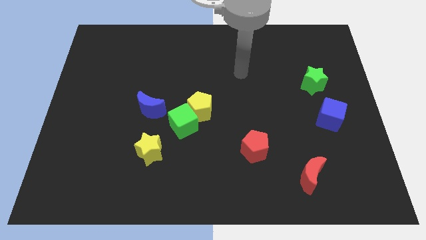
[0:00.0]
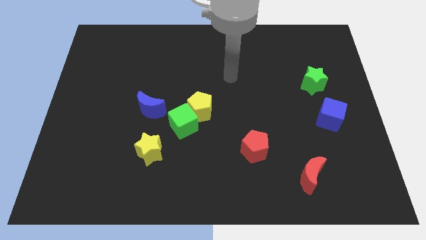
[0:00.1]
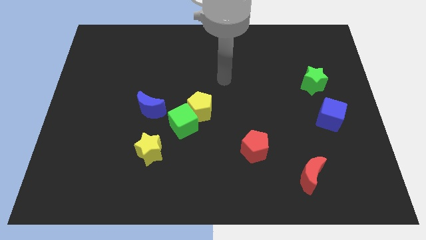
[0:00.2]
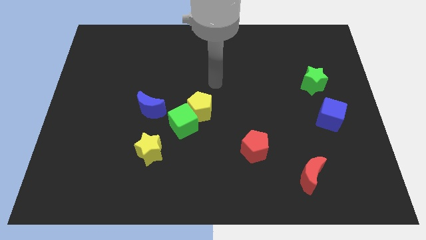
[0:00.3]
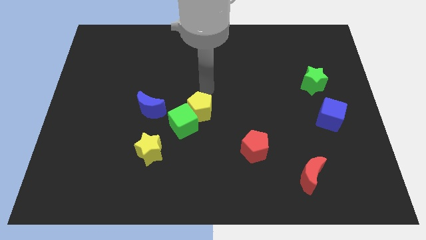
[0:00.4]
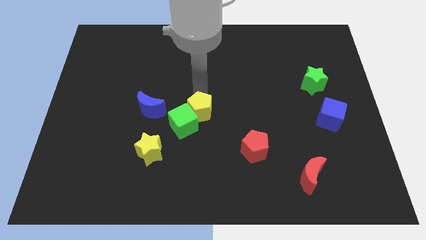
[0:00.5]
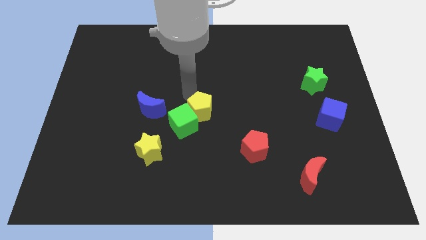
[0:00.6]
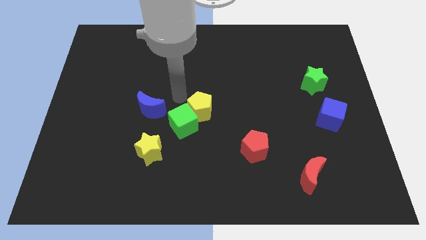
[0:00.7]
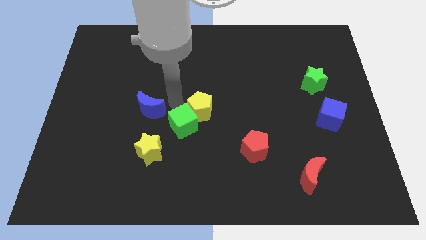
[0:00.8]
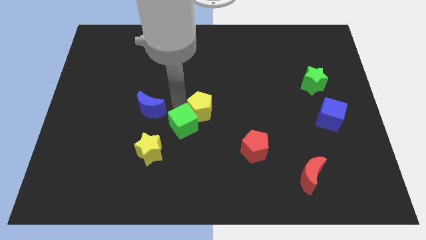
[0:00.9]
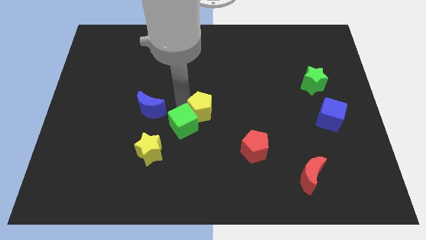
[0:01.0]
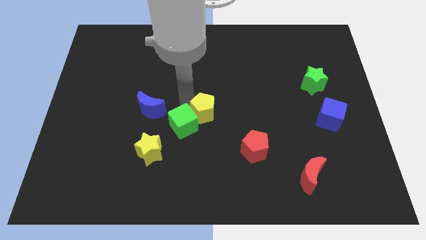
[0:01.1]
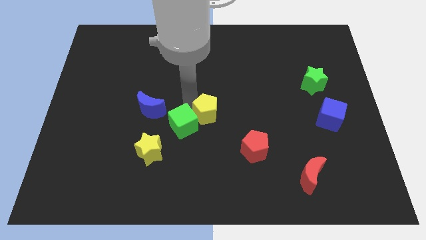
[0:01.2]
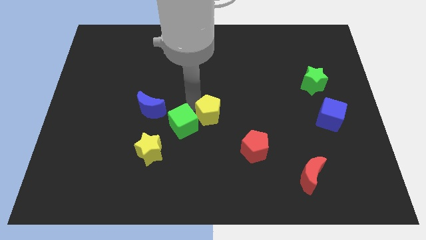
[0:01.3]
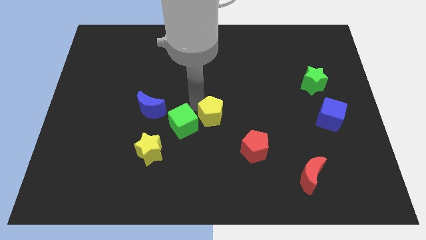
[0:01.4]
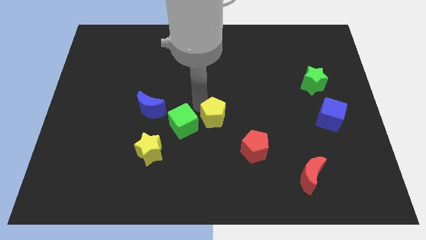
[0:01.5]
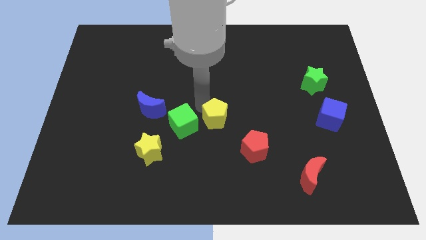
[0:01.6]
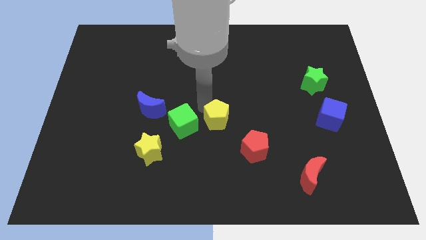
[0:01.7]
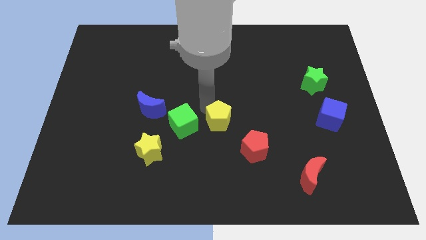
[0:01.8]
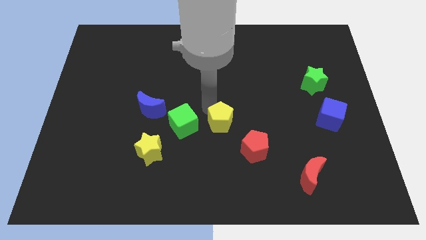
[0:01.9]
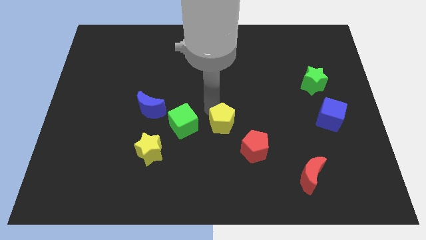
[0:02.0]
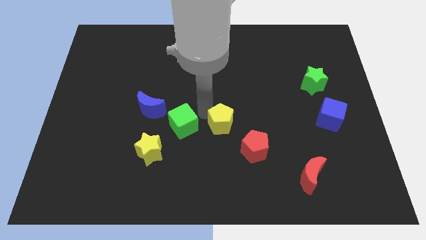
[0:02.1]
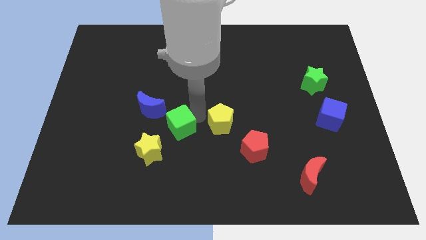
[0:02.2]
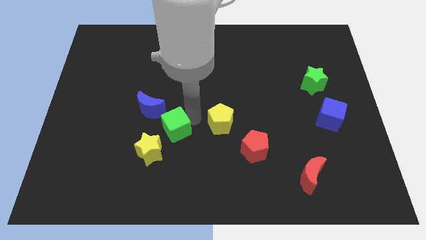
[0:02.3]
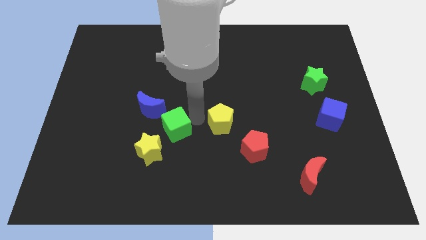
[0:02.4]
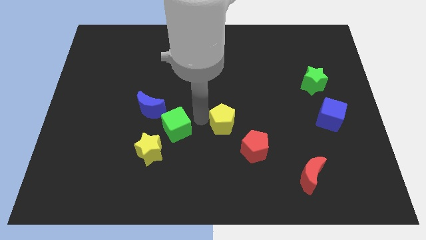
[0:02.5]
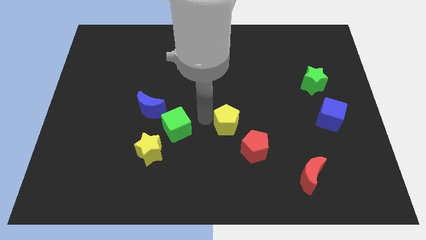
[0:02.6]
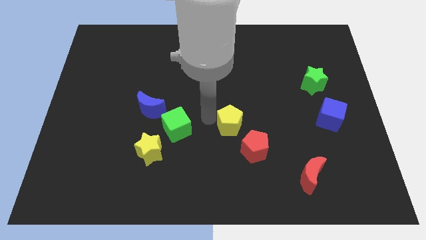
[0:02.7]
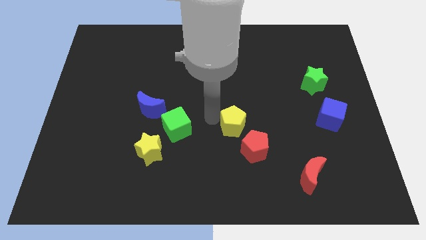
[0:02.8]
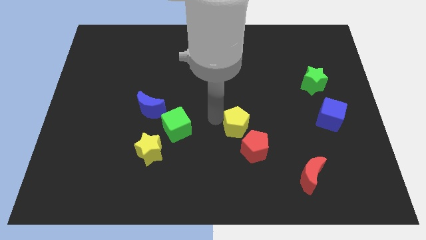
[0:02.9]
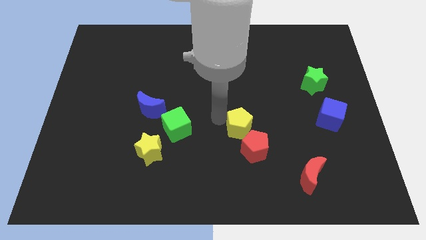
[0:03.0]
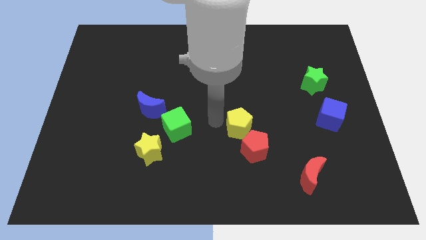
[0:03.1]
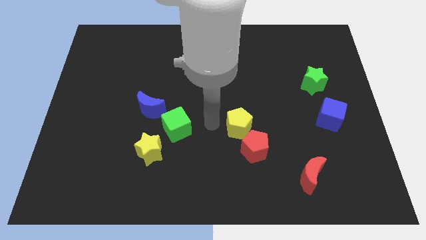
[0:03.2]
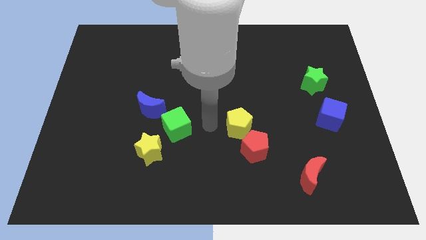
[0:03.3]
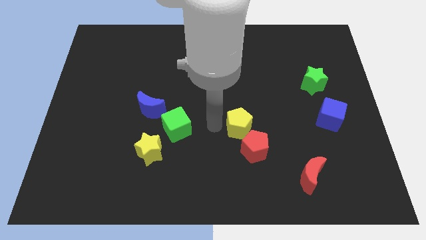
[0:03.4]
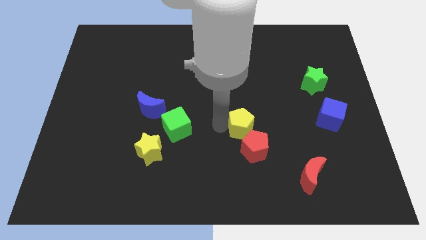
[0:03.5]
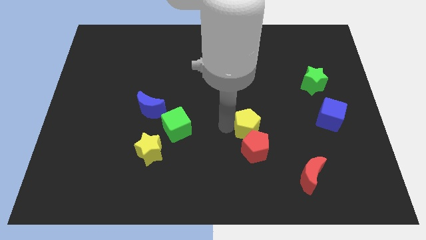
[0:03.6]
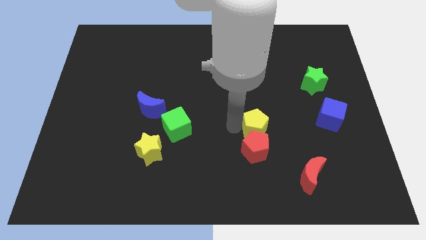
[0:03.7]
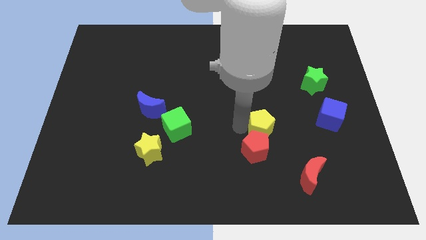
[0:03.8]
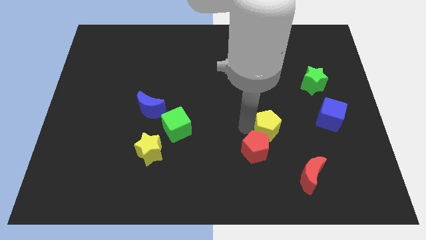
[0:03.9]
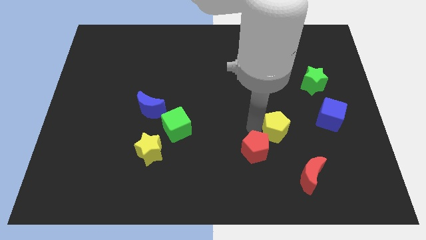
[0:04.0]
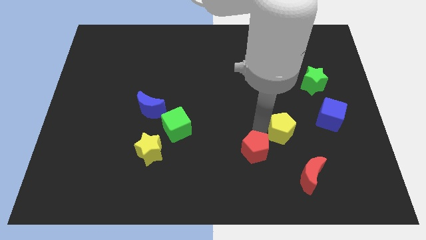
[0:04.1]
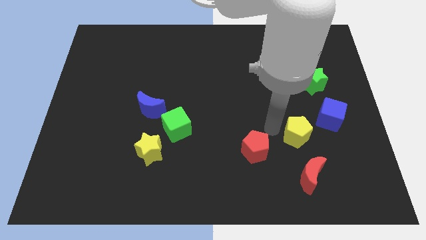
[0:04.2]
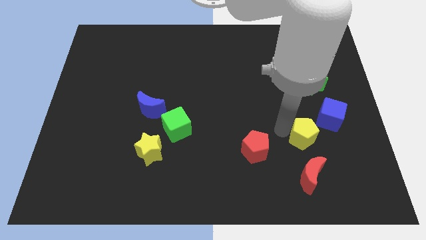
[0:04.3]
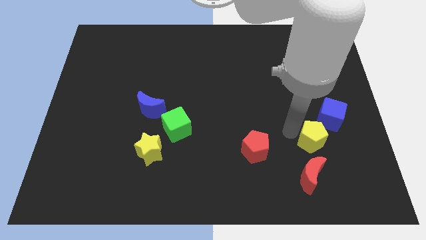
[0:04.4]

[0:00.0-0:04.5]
slide the yellow pentagon diagonally up and to the right of the red moon

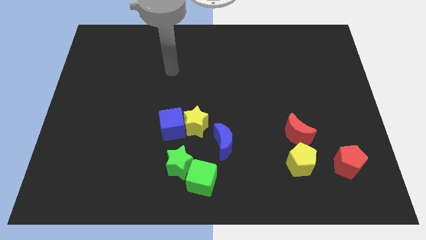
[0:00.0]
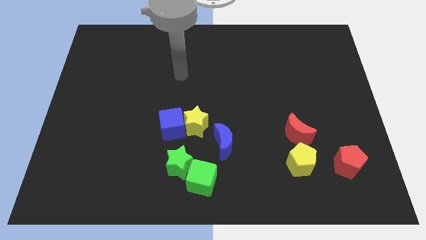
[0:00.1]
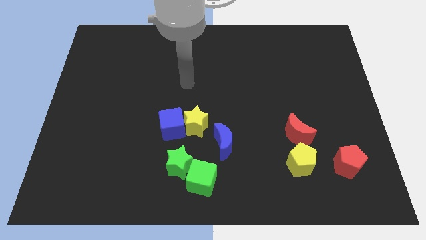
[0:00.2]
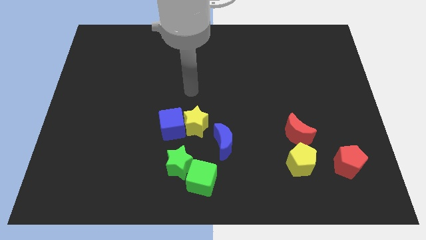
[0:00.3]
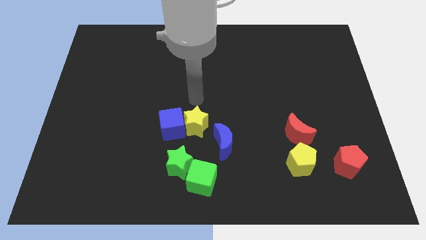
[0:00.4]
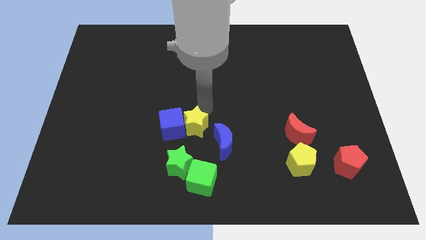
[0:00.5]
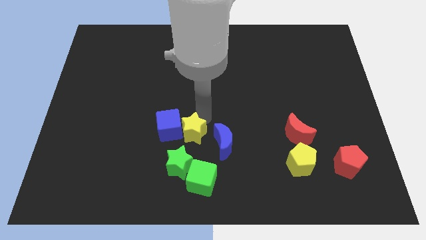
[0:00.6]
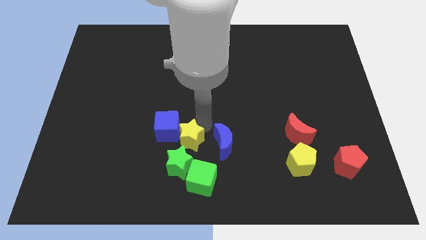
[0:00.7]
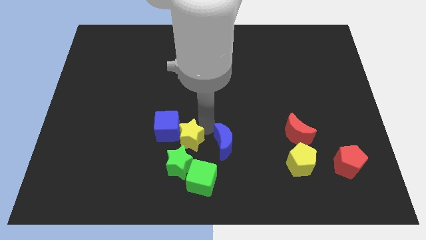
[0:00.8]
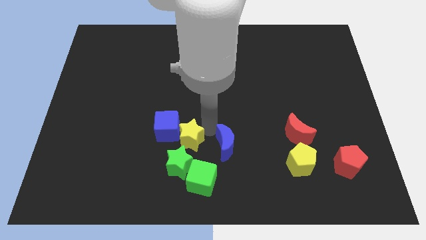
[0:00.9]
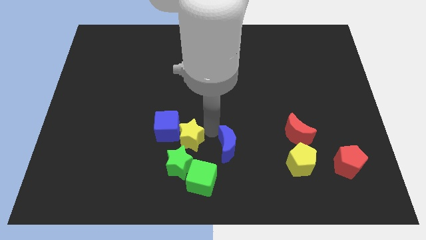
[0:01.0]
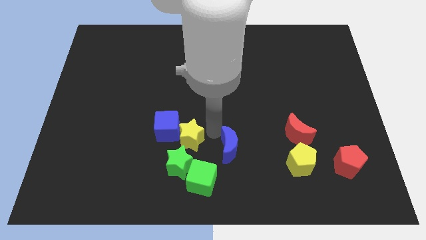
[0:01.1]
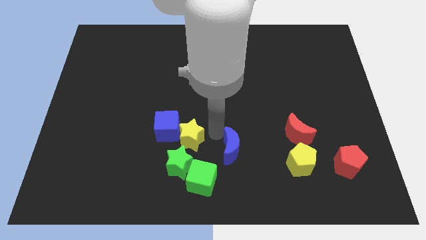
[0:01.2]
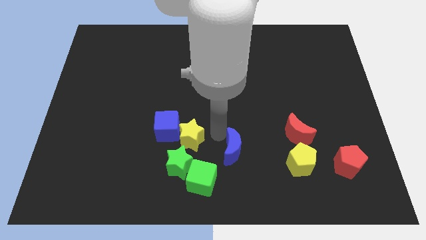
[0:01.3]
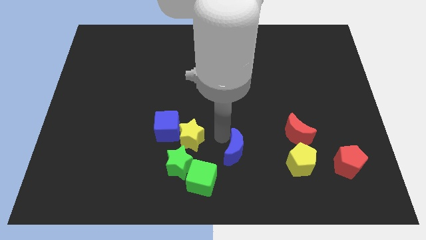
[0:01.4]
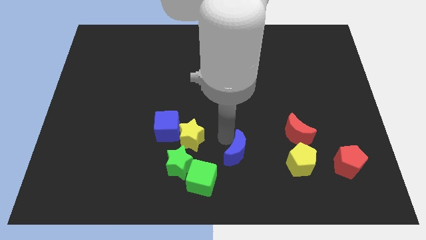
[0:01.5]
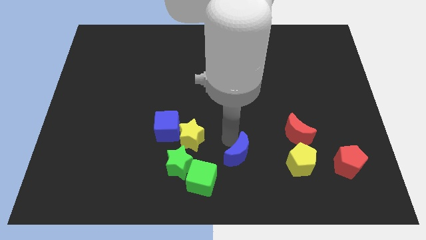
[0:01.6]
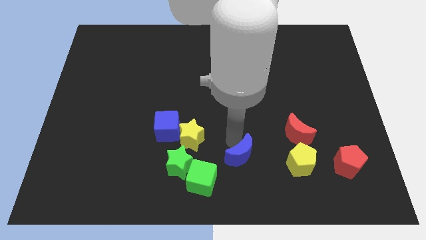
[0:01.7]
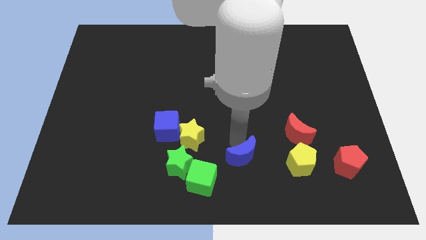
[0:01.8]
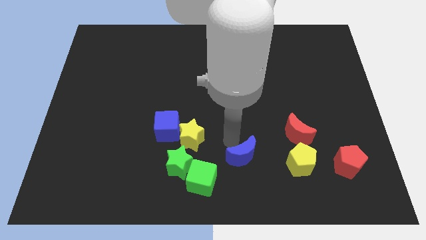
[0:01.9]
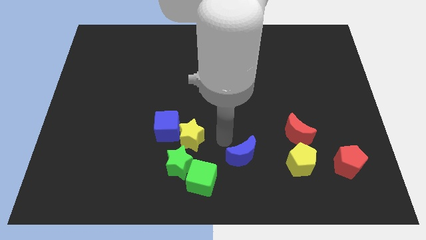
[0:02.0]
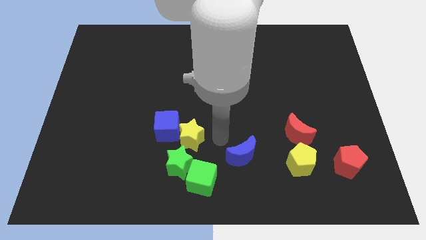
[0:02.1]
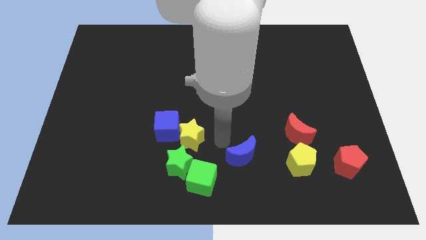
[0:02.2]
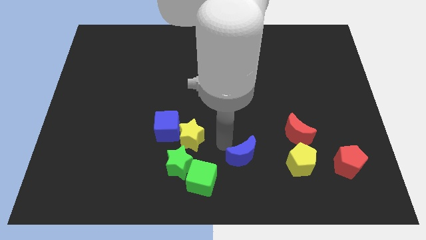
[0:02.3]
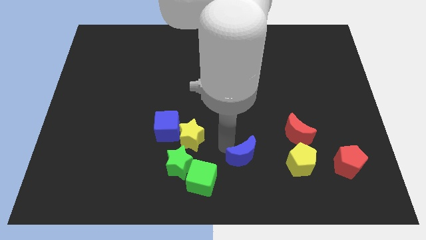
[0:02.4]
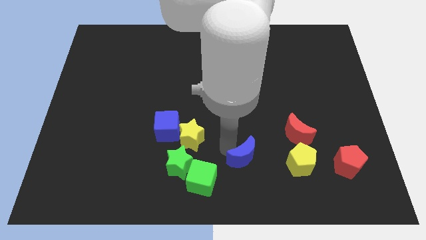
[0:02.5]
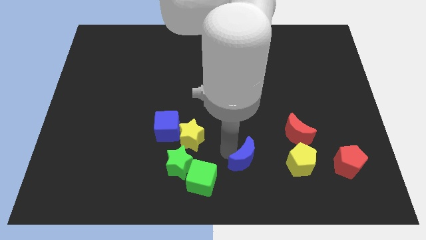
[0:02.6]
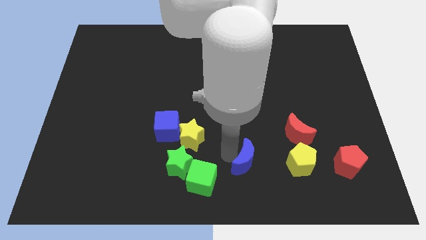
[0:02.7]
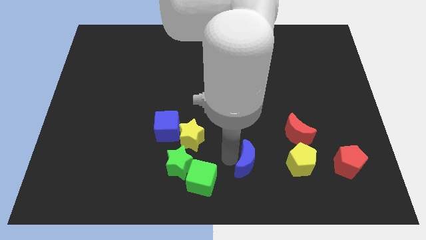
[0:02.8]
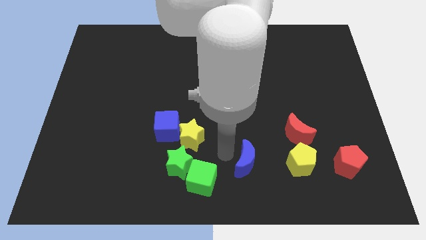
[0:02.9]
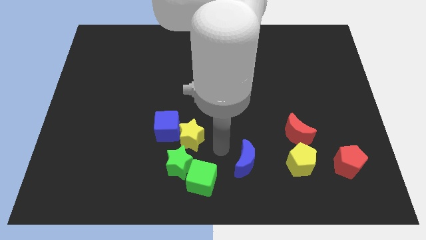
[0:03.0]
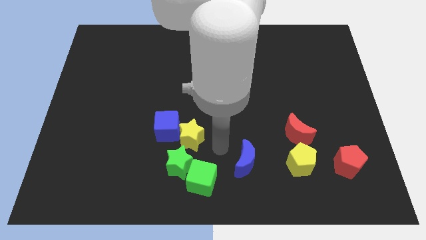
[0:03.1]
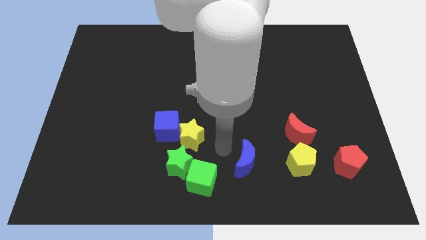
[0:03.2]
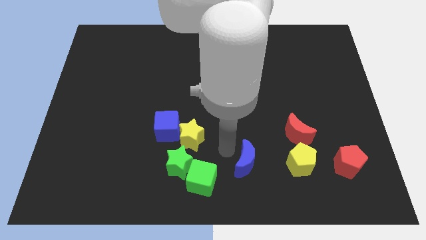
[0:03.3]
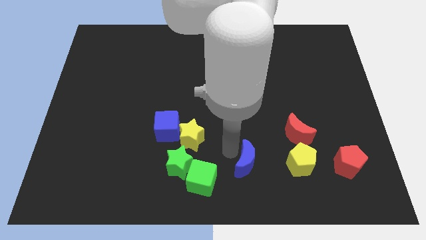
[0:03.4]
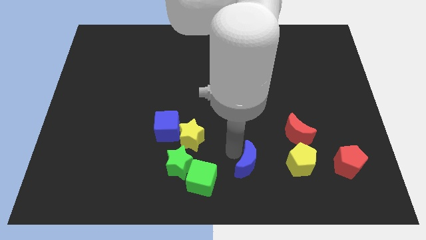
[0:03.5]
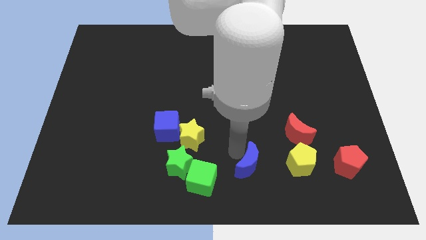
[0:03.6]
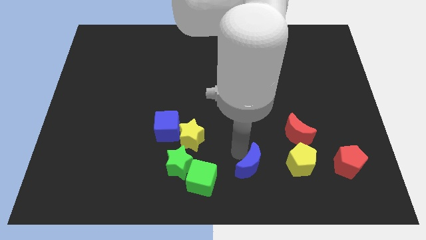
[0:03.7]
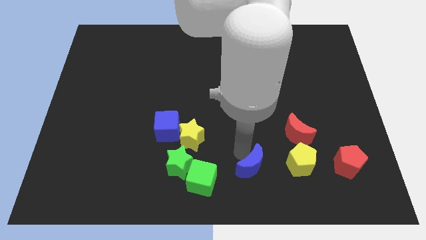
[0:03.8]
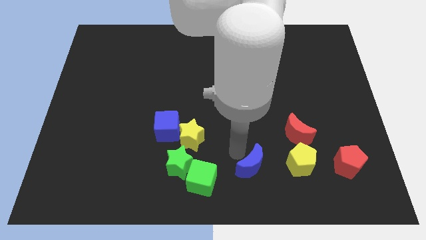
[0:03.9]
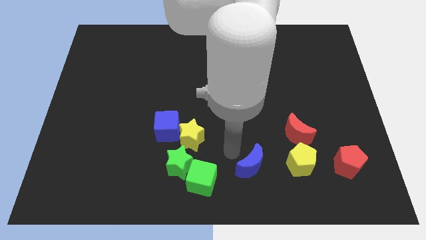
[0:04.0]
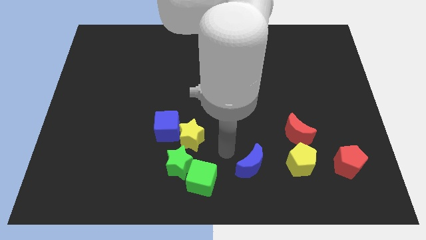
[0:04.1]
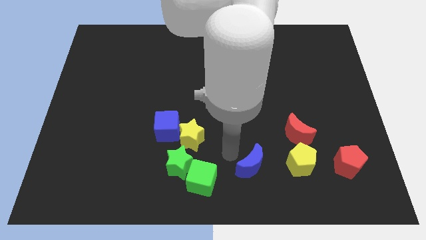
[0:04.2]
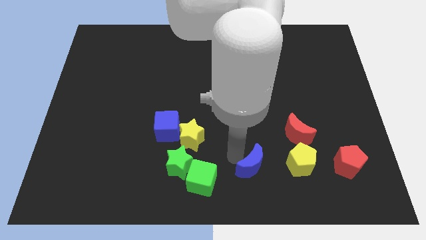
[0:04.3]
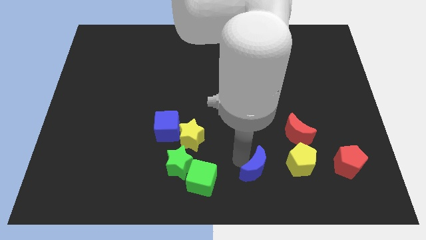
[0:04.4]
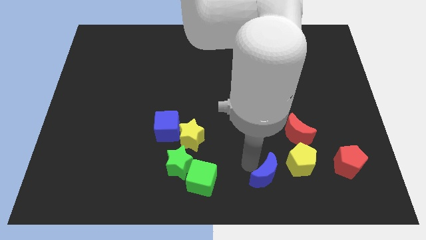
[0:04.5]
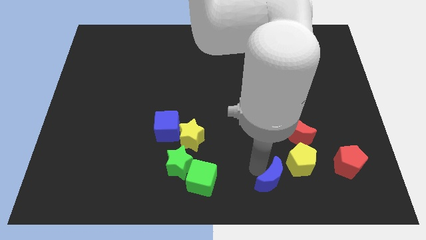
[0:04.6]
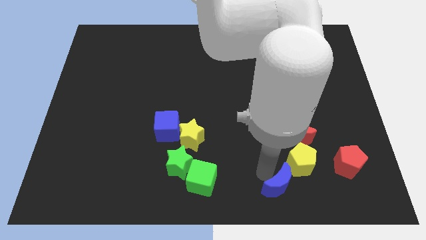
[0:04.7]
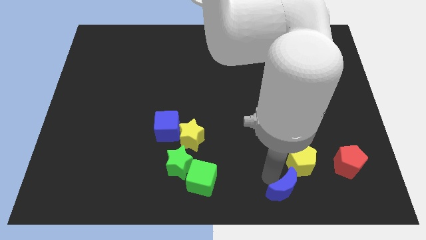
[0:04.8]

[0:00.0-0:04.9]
move the blue moon to the bottom side of the red moon
